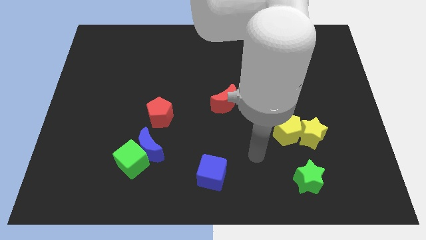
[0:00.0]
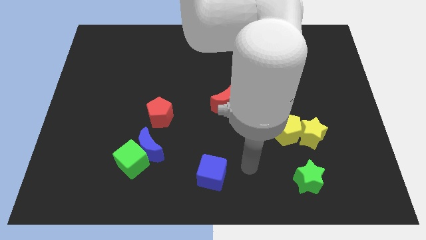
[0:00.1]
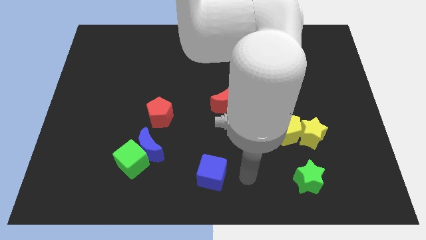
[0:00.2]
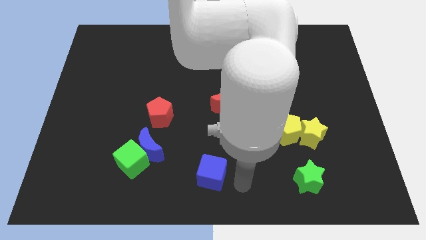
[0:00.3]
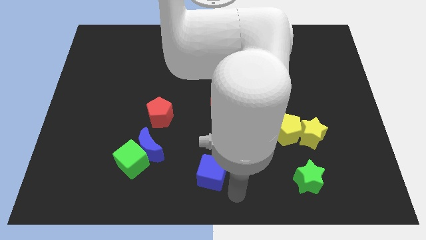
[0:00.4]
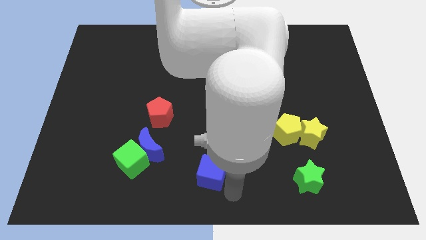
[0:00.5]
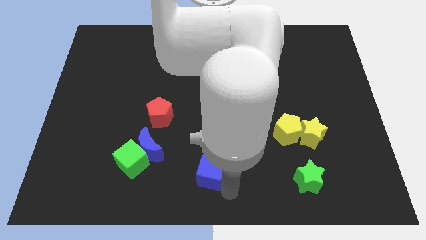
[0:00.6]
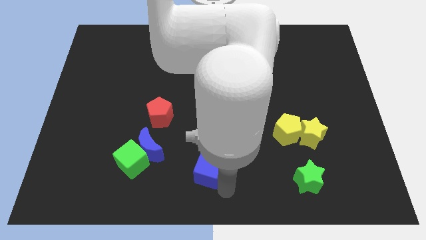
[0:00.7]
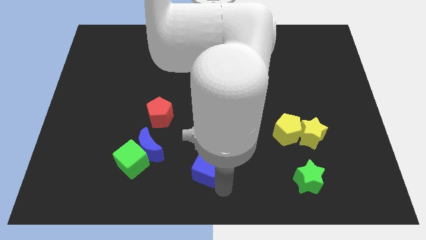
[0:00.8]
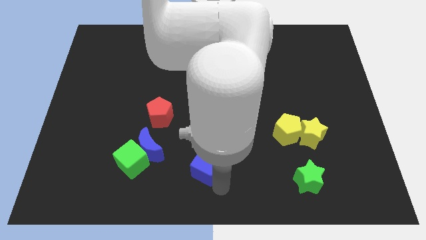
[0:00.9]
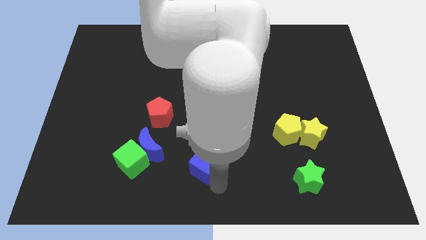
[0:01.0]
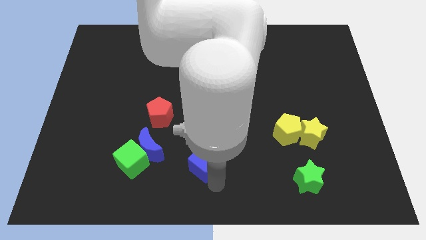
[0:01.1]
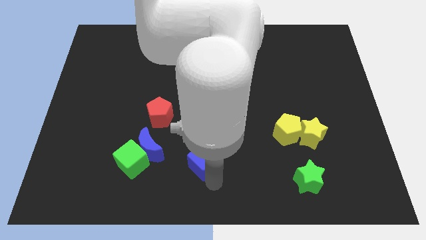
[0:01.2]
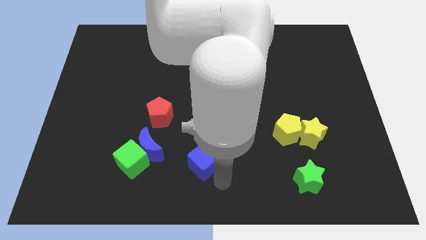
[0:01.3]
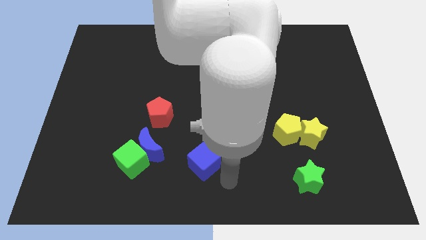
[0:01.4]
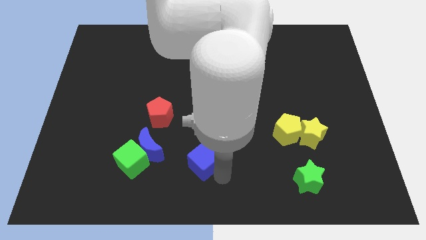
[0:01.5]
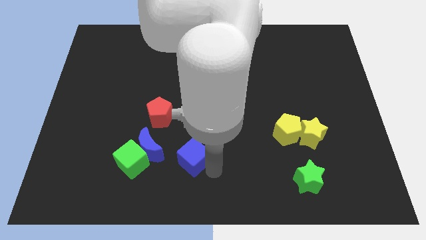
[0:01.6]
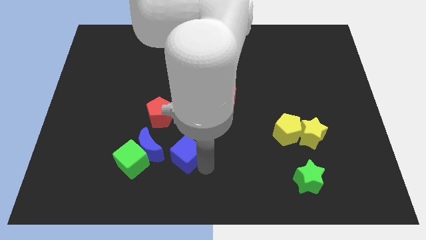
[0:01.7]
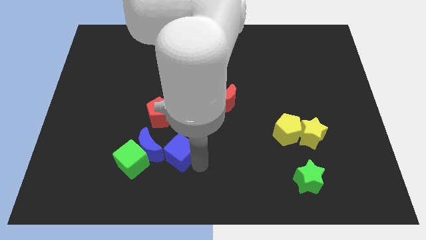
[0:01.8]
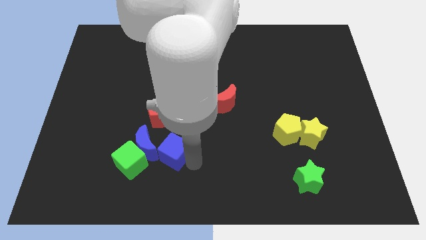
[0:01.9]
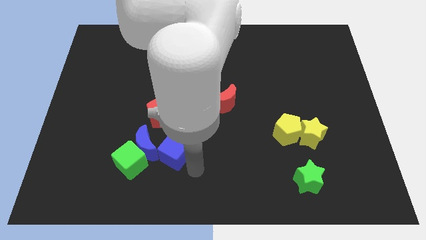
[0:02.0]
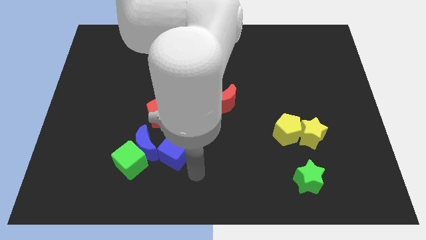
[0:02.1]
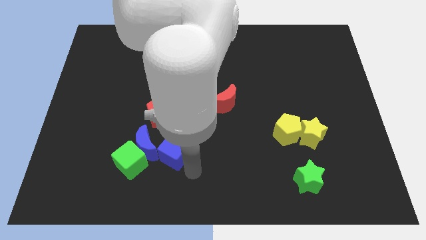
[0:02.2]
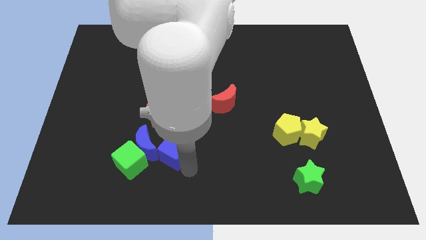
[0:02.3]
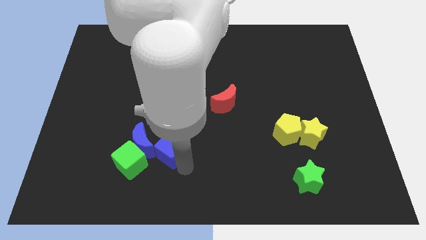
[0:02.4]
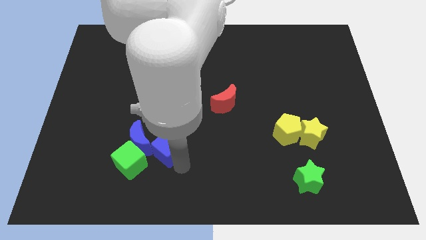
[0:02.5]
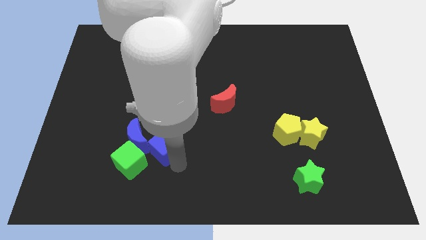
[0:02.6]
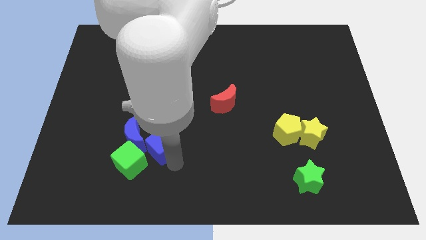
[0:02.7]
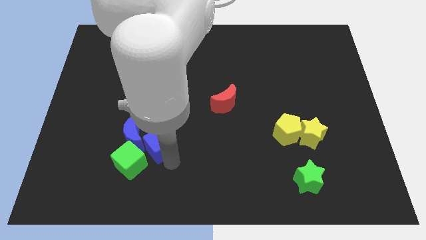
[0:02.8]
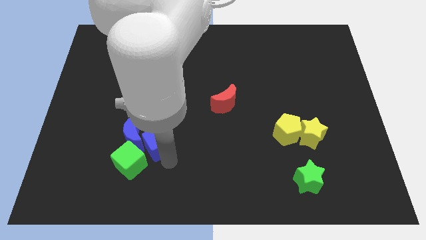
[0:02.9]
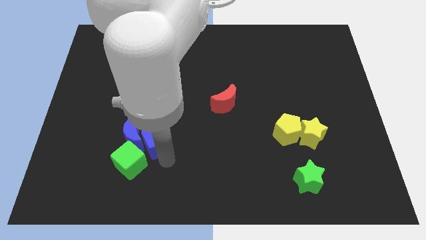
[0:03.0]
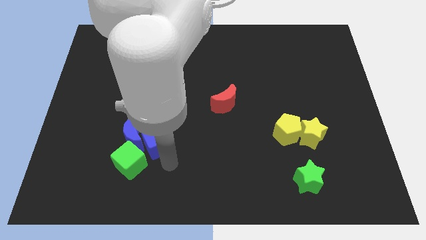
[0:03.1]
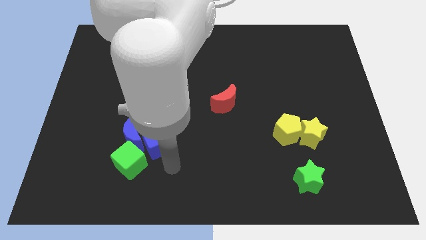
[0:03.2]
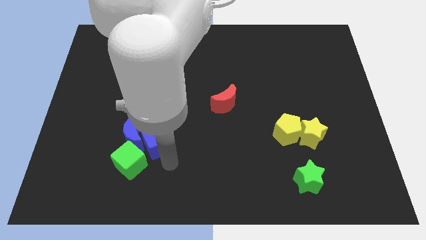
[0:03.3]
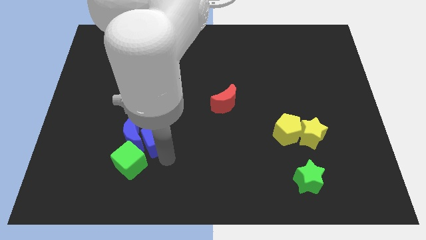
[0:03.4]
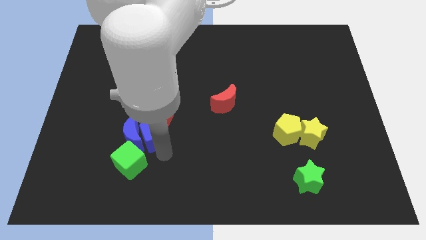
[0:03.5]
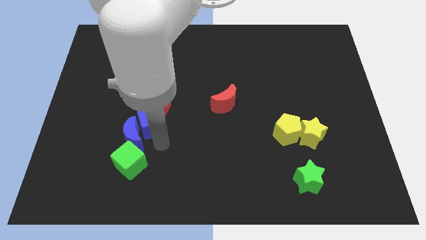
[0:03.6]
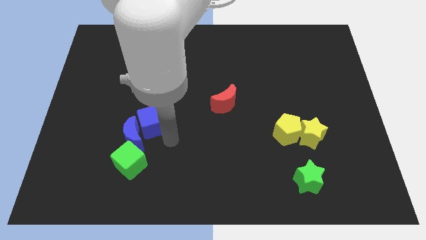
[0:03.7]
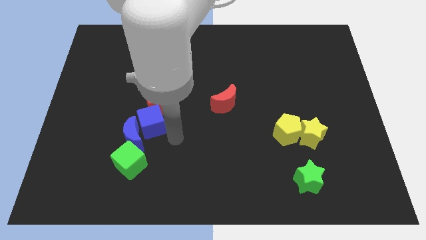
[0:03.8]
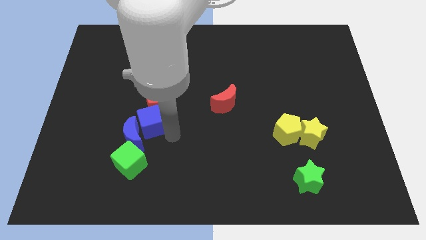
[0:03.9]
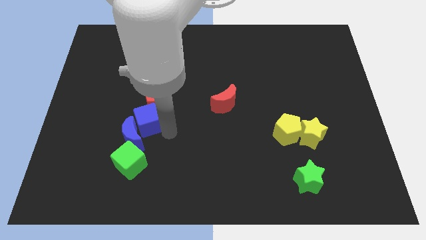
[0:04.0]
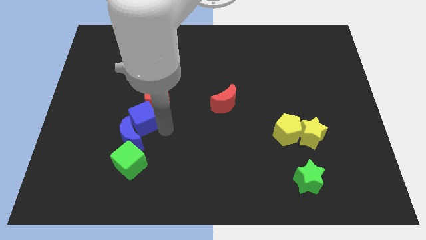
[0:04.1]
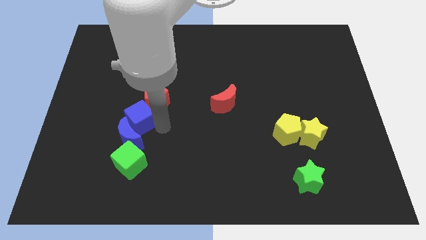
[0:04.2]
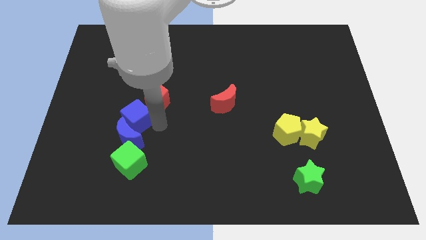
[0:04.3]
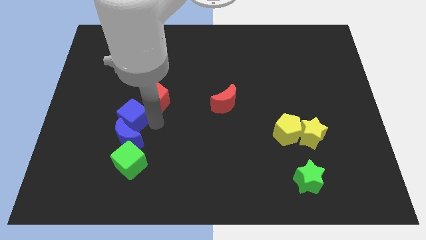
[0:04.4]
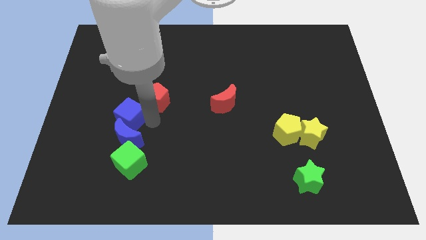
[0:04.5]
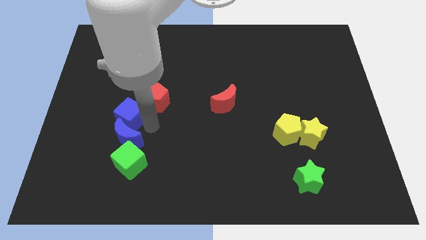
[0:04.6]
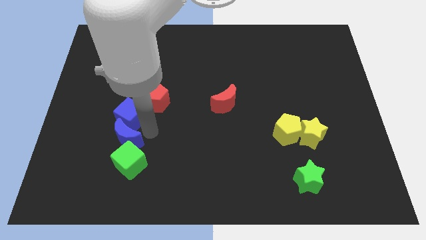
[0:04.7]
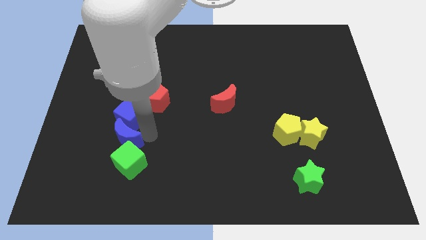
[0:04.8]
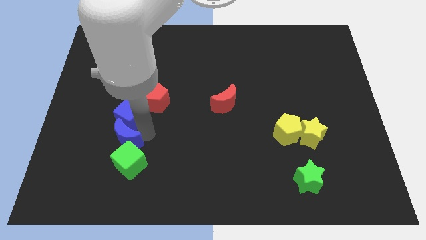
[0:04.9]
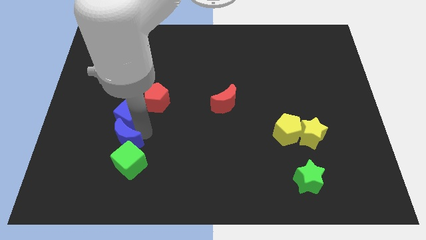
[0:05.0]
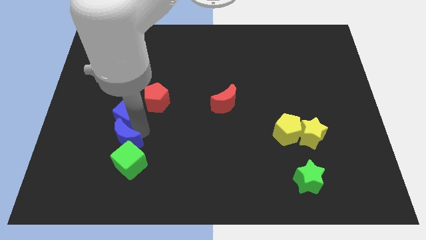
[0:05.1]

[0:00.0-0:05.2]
push the blue cube left of the red pentagon

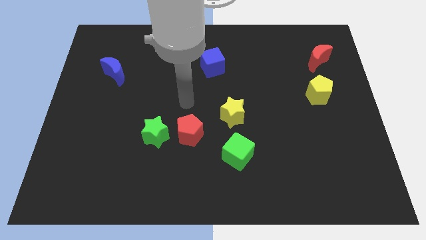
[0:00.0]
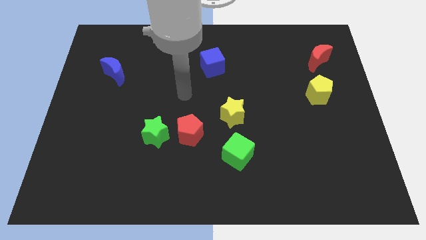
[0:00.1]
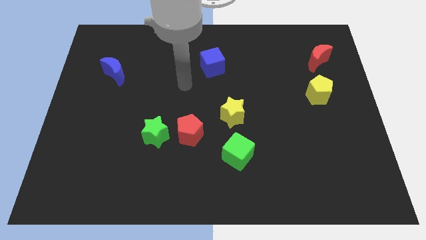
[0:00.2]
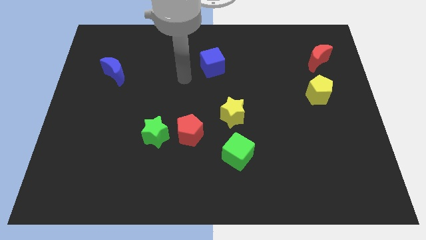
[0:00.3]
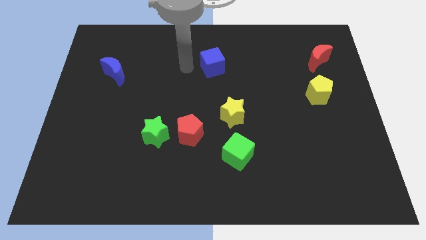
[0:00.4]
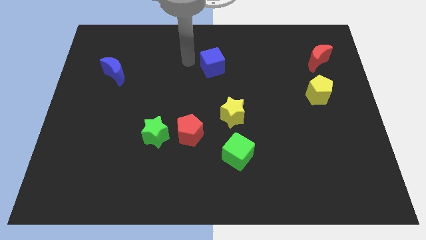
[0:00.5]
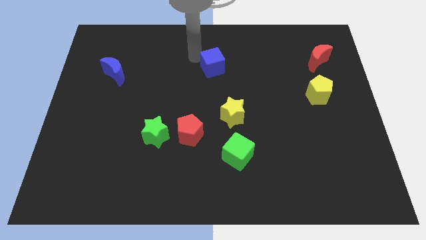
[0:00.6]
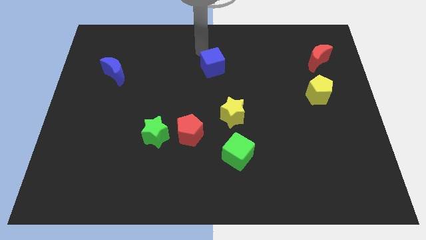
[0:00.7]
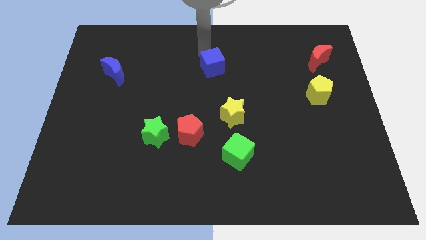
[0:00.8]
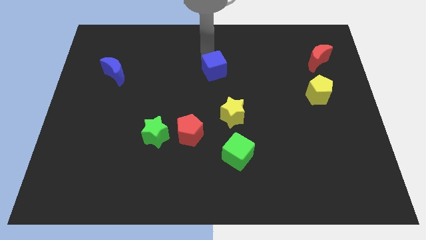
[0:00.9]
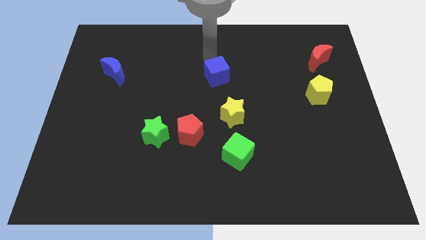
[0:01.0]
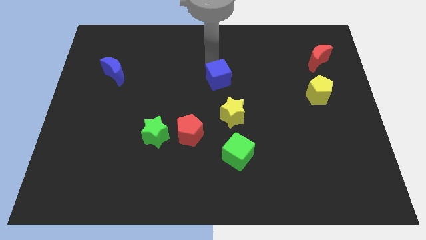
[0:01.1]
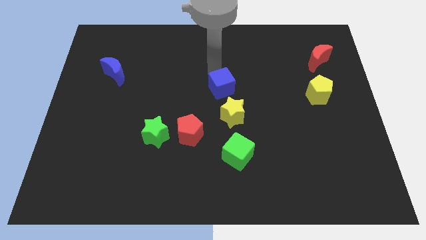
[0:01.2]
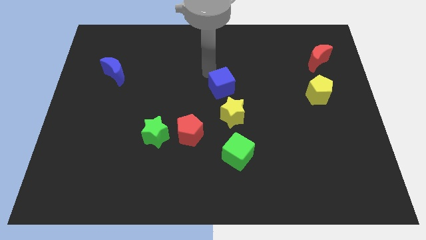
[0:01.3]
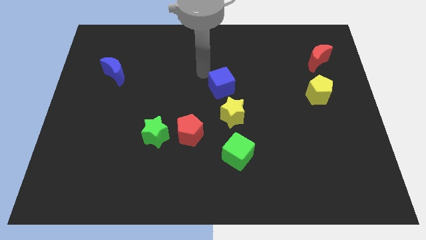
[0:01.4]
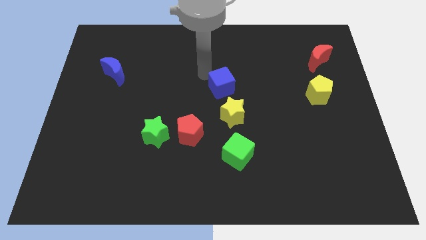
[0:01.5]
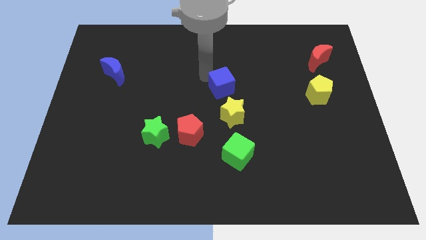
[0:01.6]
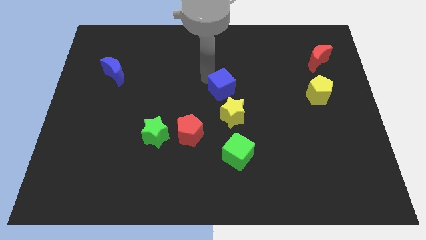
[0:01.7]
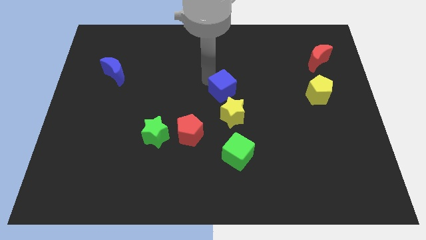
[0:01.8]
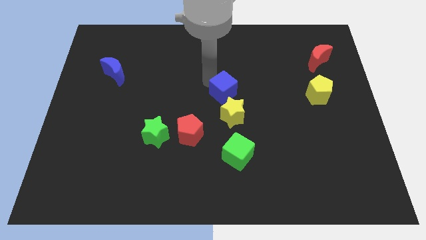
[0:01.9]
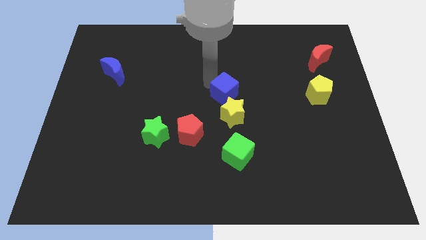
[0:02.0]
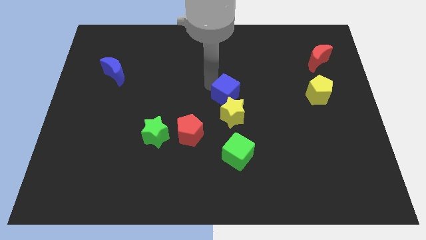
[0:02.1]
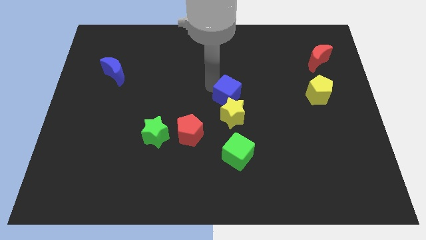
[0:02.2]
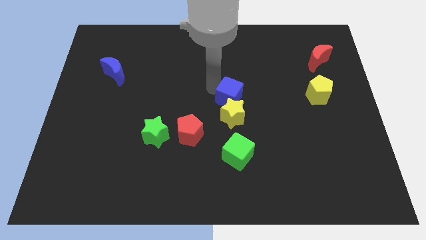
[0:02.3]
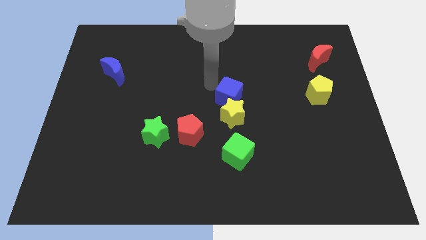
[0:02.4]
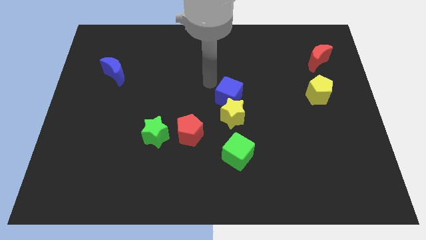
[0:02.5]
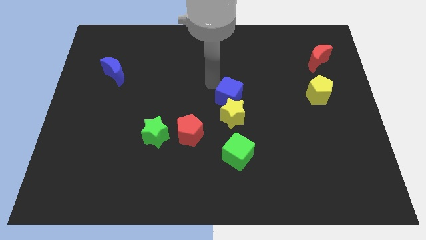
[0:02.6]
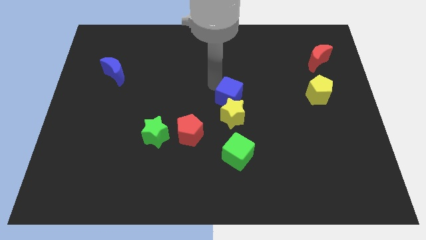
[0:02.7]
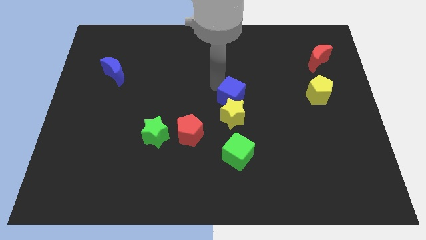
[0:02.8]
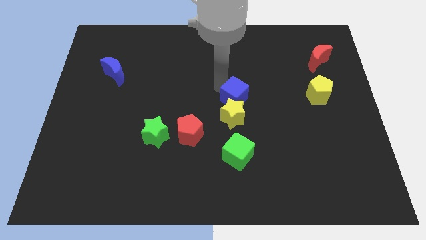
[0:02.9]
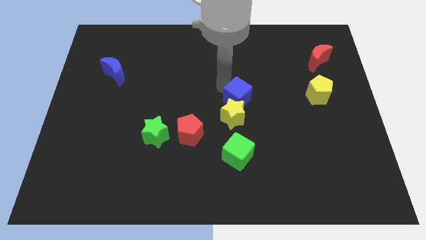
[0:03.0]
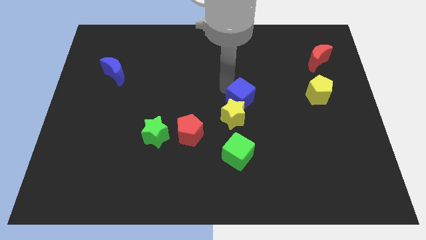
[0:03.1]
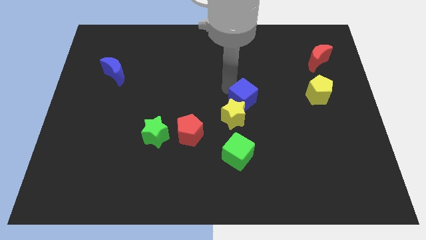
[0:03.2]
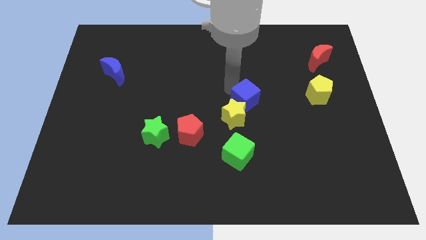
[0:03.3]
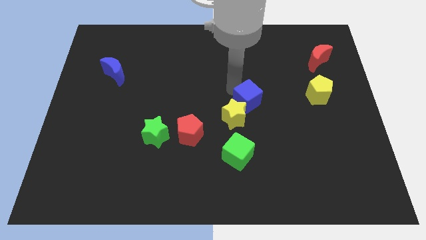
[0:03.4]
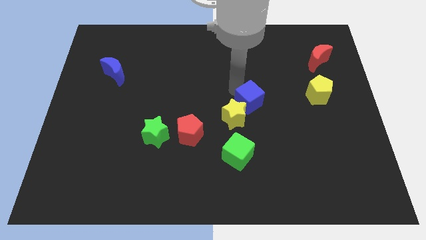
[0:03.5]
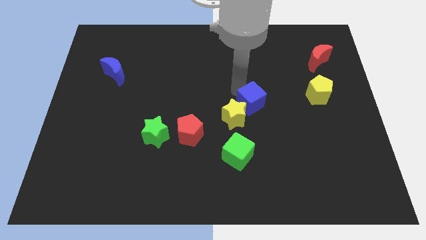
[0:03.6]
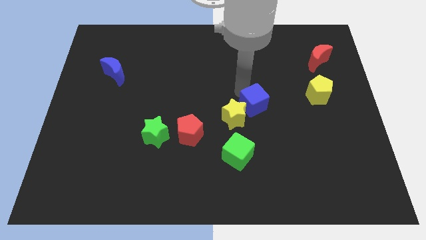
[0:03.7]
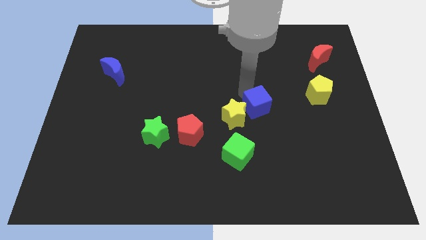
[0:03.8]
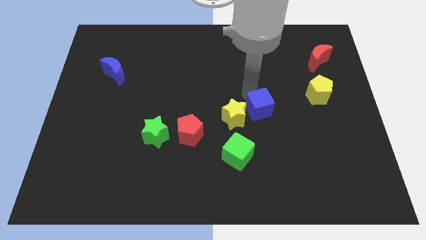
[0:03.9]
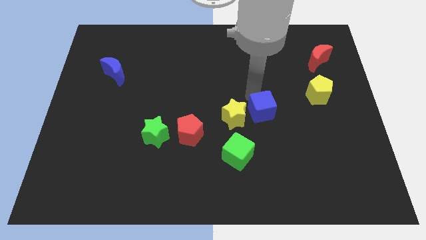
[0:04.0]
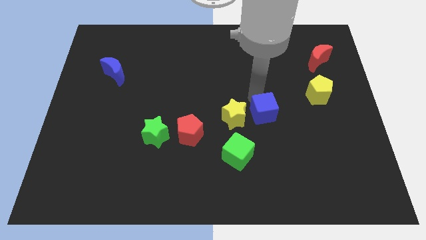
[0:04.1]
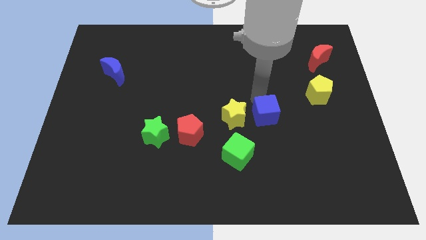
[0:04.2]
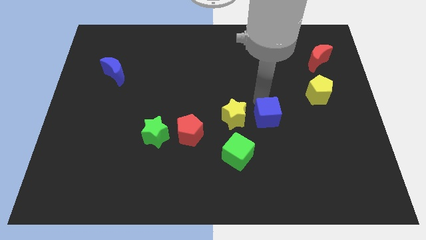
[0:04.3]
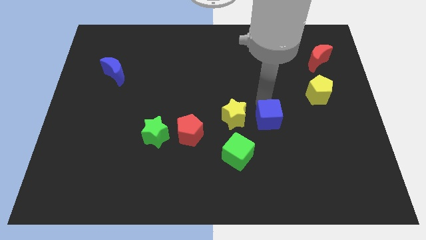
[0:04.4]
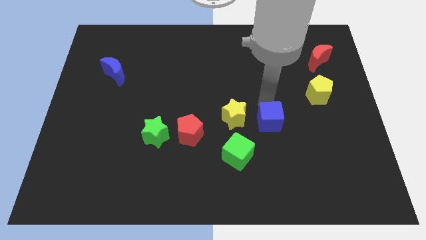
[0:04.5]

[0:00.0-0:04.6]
move the blue cube diagonally down and to the right of the yellow star
